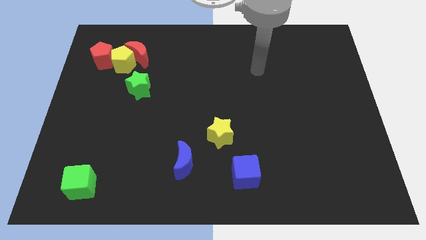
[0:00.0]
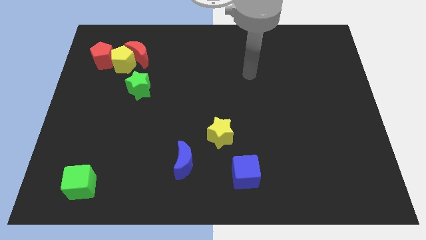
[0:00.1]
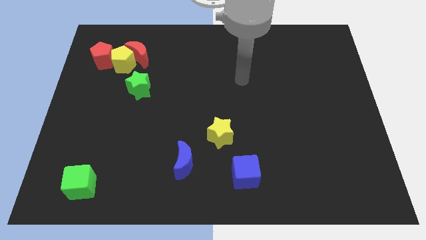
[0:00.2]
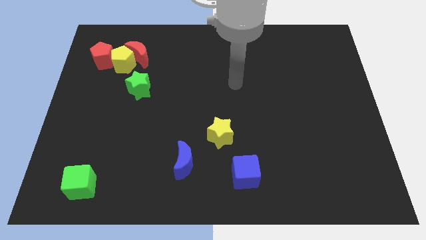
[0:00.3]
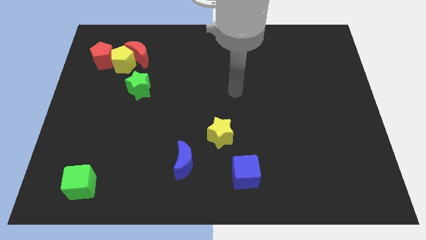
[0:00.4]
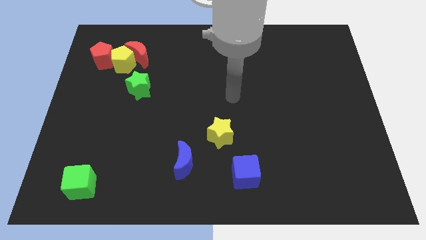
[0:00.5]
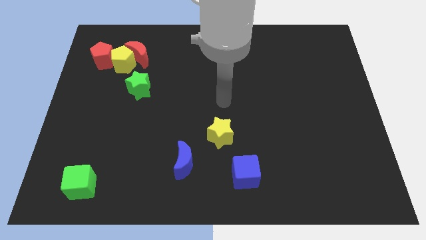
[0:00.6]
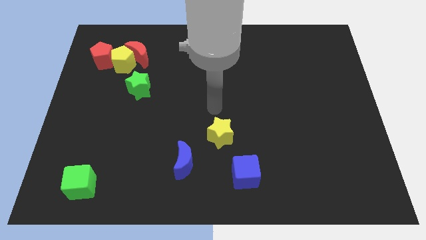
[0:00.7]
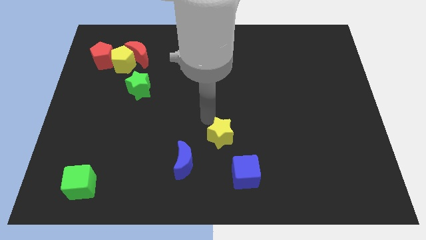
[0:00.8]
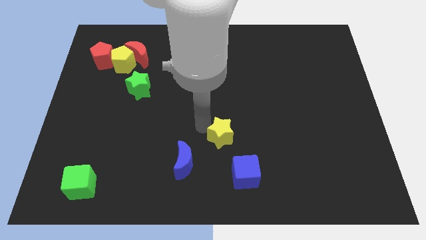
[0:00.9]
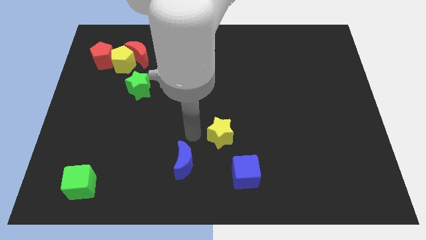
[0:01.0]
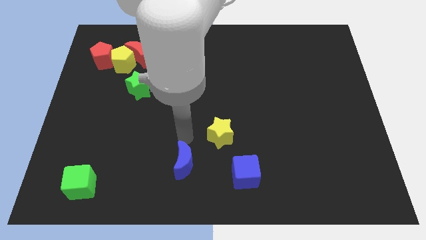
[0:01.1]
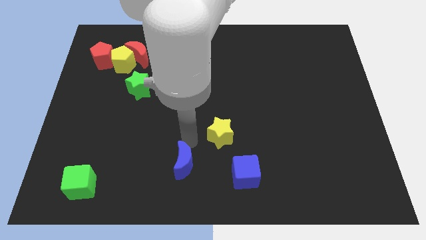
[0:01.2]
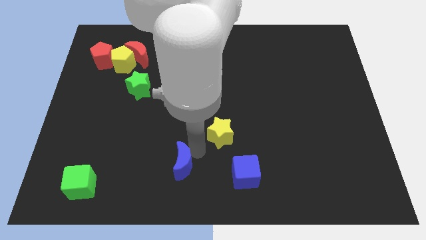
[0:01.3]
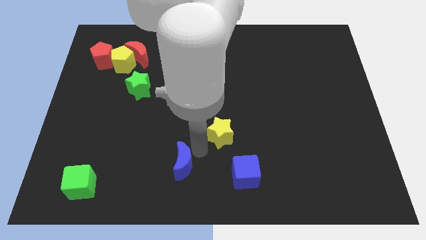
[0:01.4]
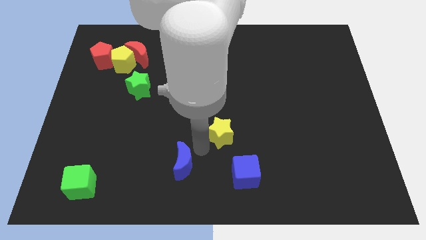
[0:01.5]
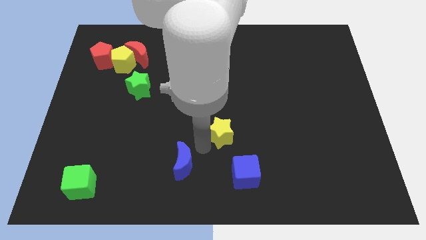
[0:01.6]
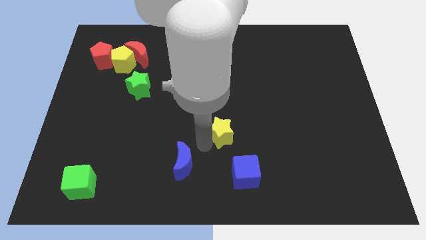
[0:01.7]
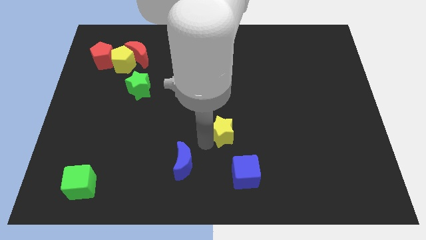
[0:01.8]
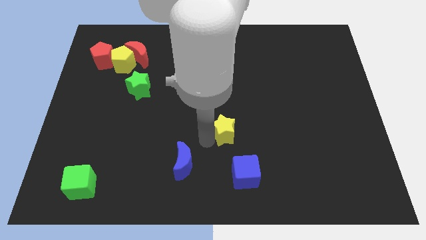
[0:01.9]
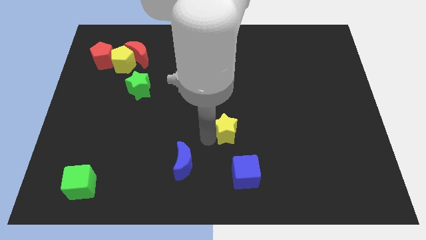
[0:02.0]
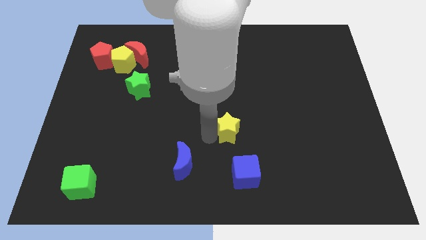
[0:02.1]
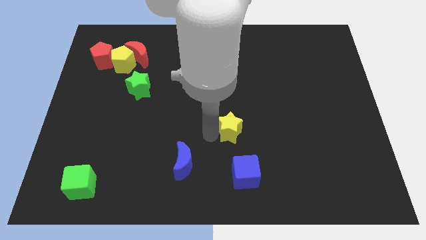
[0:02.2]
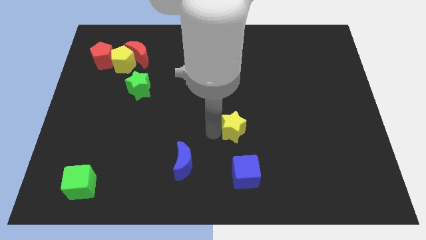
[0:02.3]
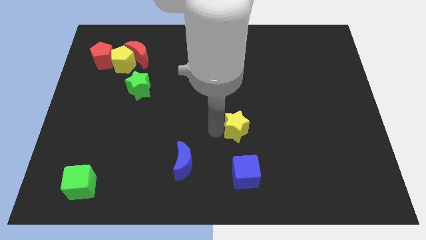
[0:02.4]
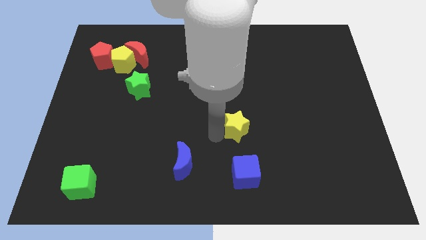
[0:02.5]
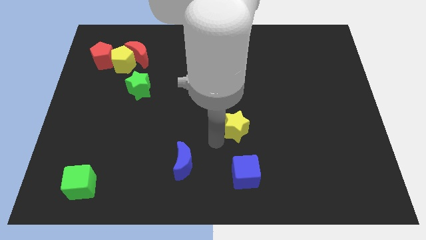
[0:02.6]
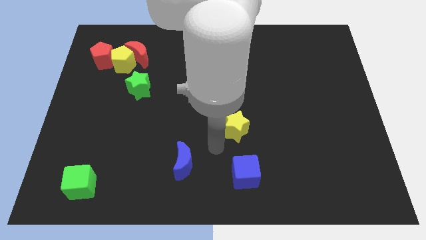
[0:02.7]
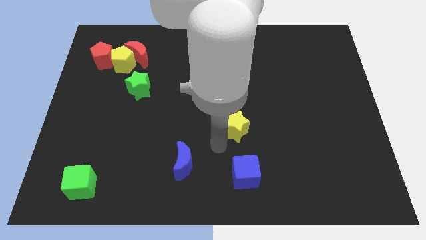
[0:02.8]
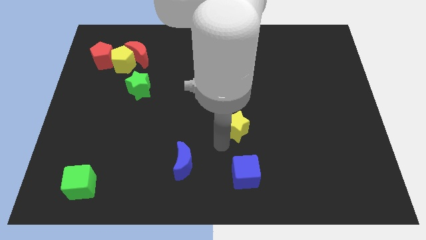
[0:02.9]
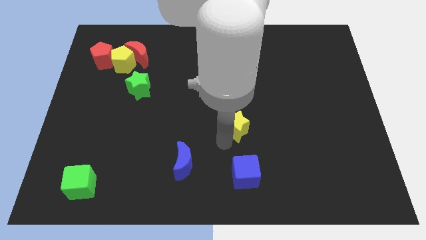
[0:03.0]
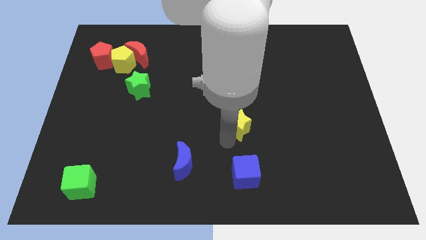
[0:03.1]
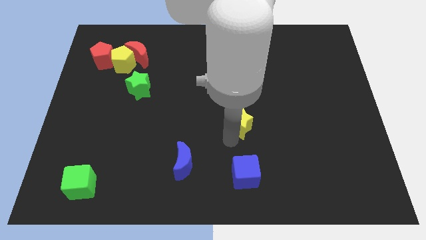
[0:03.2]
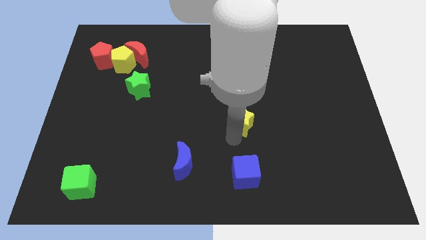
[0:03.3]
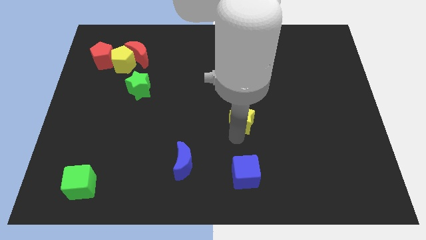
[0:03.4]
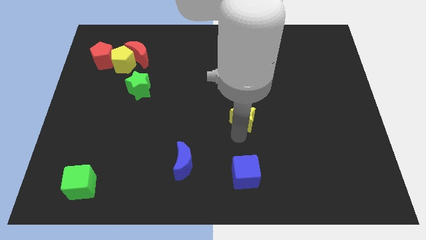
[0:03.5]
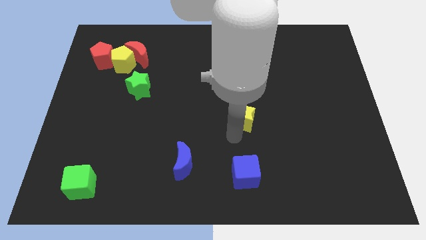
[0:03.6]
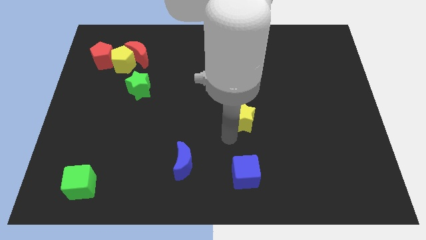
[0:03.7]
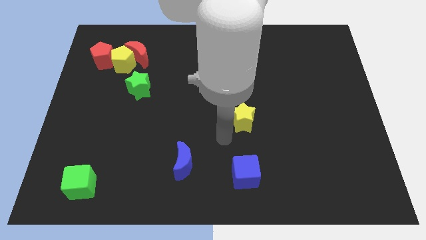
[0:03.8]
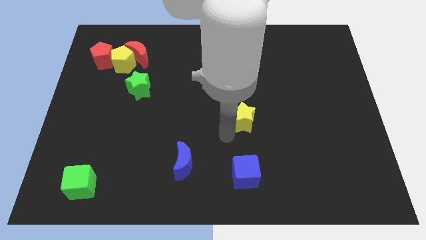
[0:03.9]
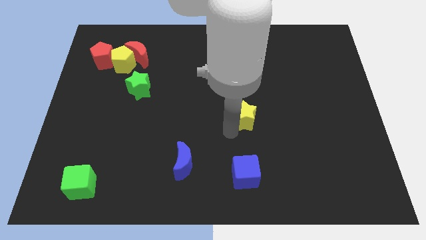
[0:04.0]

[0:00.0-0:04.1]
move the yellow star slightly up and right

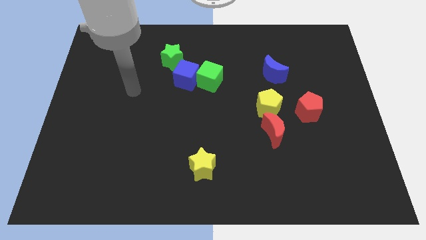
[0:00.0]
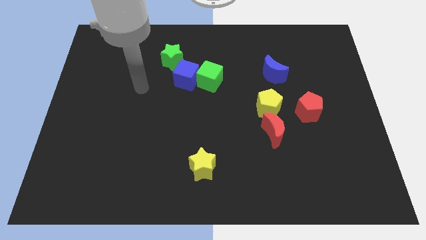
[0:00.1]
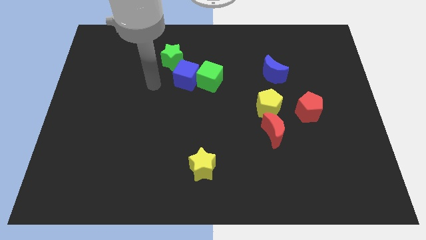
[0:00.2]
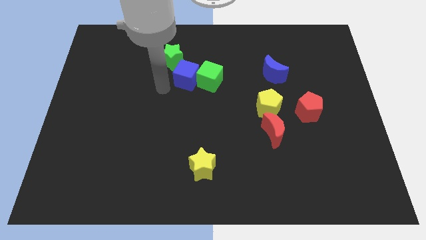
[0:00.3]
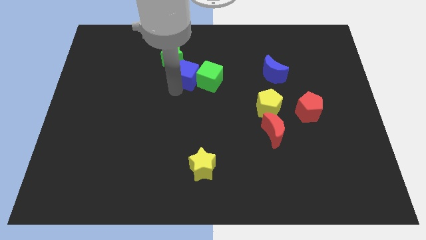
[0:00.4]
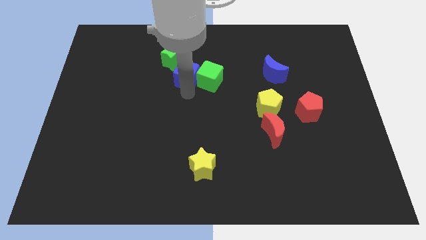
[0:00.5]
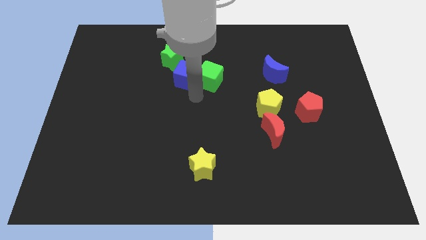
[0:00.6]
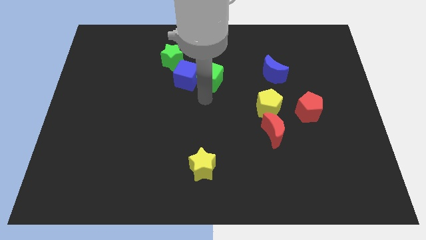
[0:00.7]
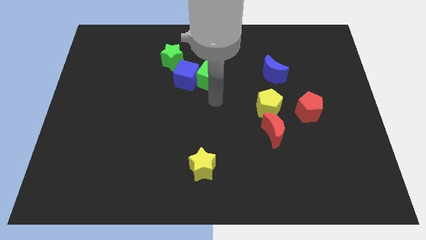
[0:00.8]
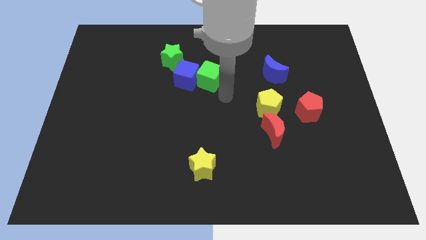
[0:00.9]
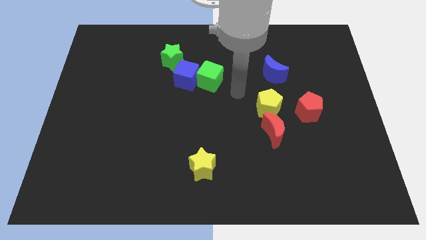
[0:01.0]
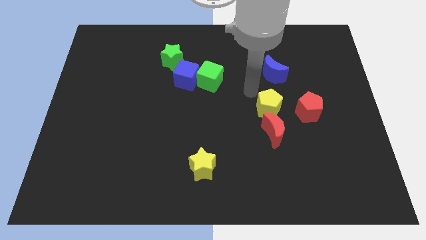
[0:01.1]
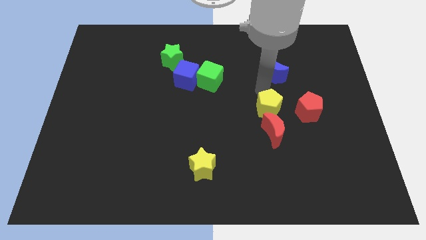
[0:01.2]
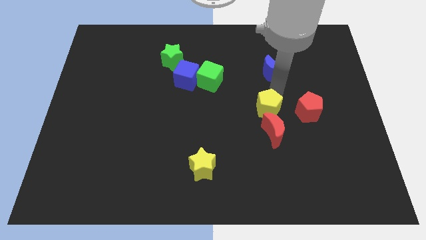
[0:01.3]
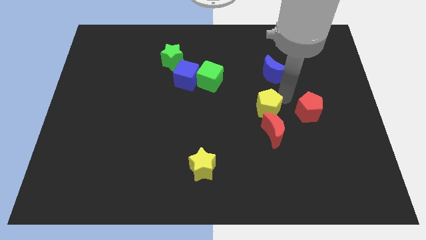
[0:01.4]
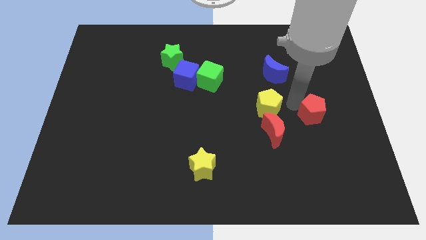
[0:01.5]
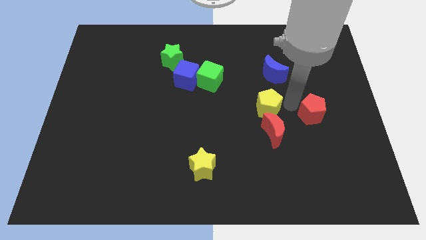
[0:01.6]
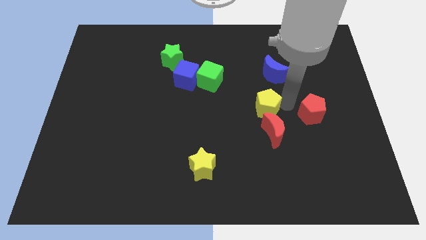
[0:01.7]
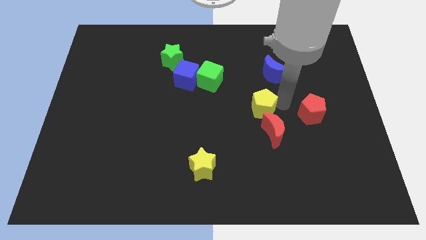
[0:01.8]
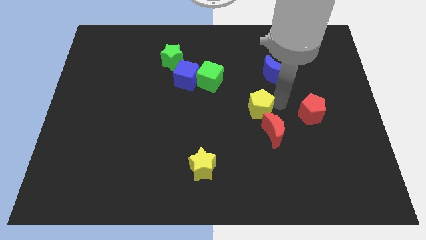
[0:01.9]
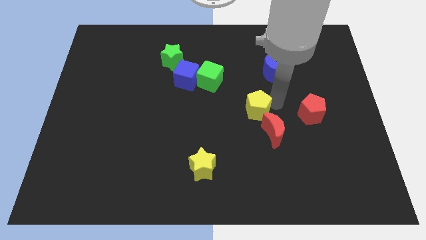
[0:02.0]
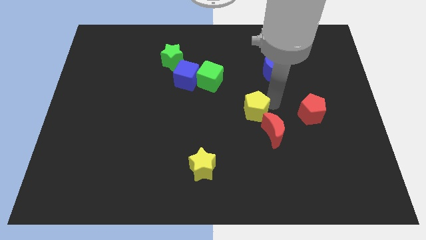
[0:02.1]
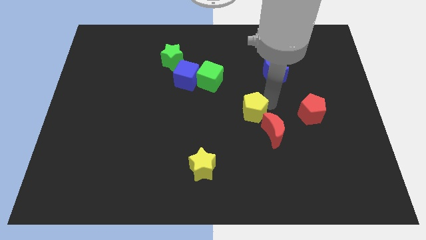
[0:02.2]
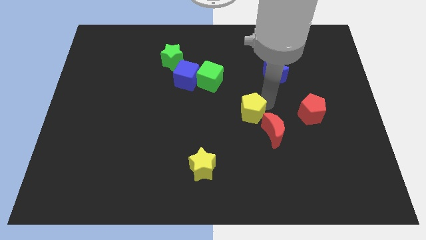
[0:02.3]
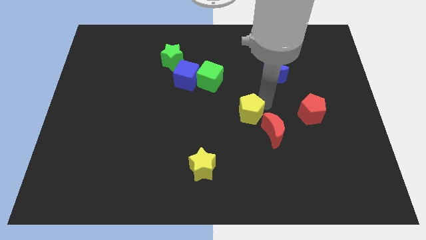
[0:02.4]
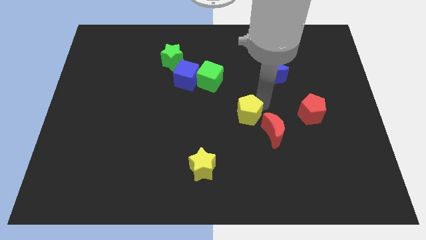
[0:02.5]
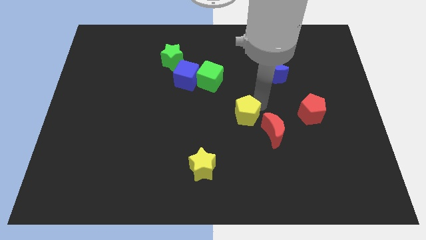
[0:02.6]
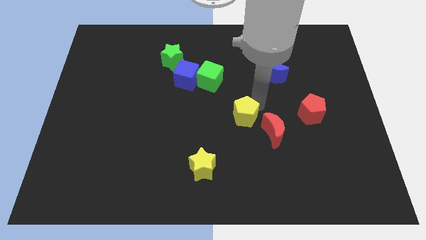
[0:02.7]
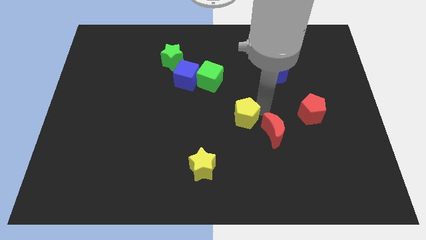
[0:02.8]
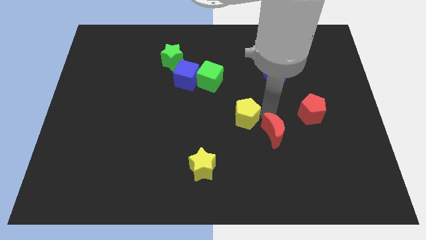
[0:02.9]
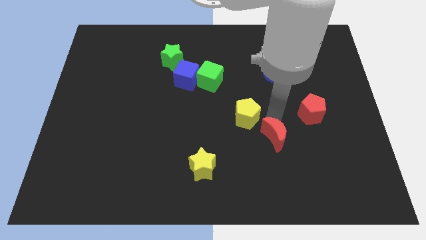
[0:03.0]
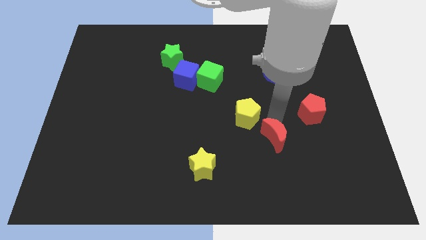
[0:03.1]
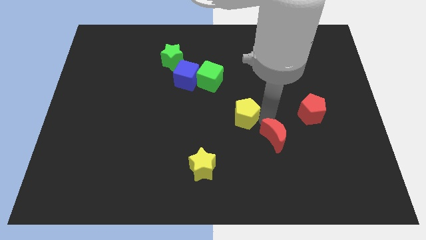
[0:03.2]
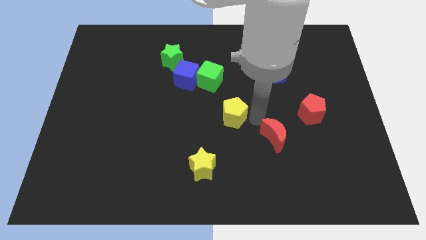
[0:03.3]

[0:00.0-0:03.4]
move the yellow pentagon left a bit
